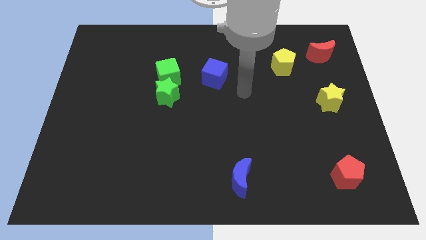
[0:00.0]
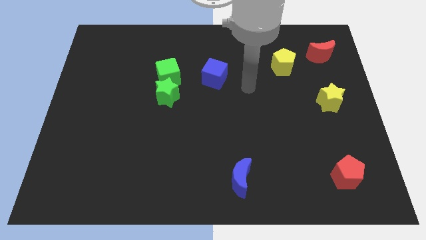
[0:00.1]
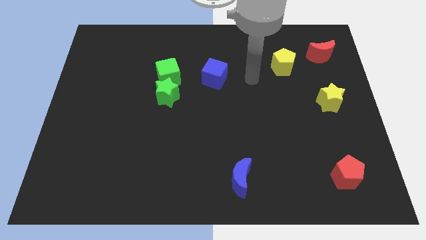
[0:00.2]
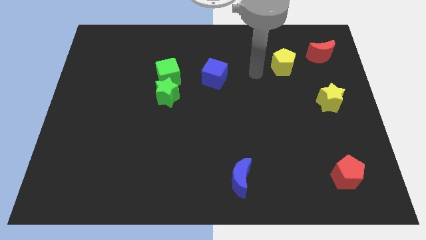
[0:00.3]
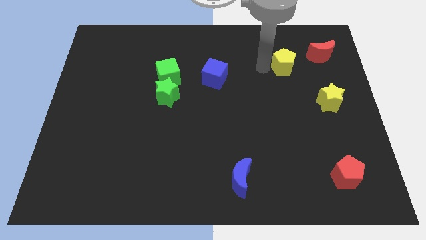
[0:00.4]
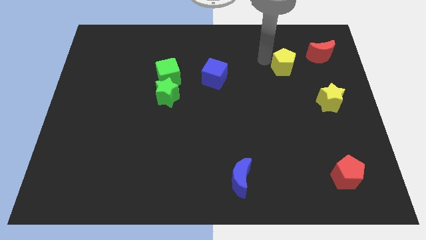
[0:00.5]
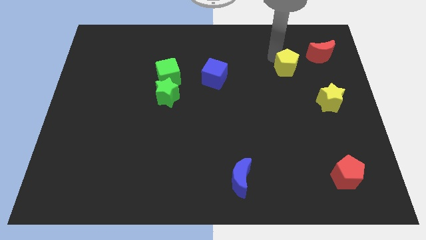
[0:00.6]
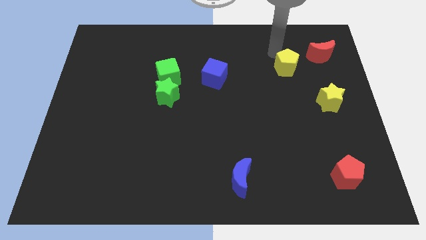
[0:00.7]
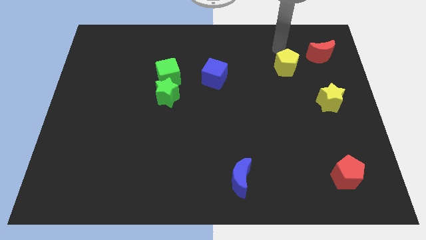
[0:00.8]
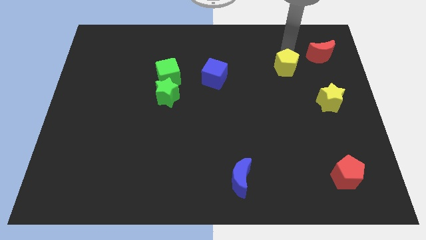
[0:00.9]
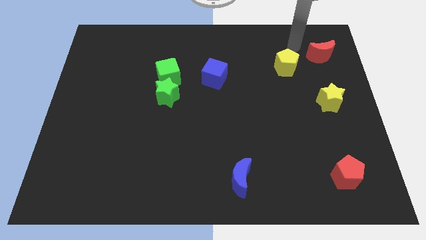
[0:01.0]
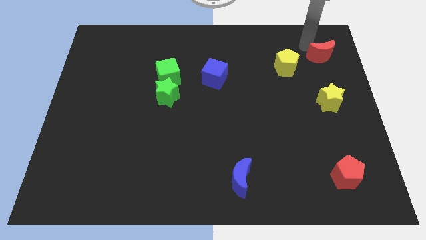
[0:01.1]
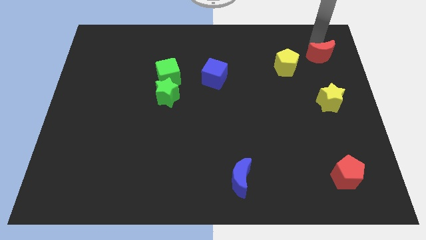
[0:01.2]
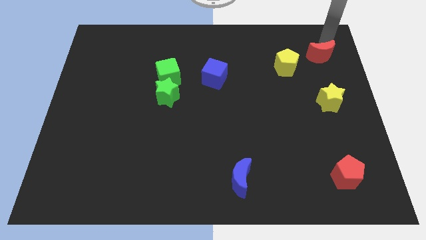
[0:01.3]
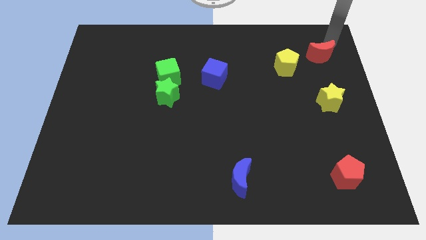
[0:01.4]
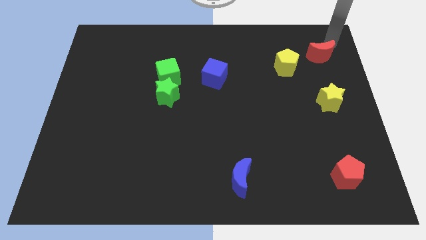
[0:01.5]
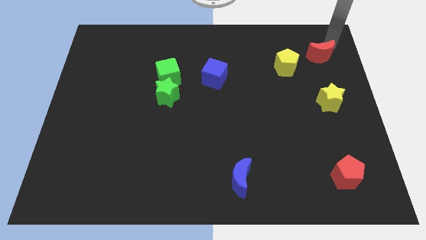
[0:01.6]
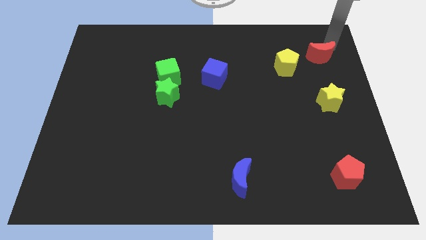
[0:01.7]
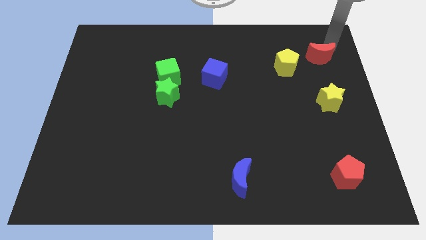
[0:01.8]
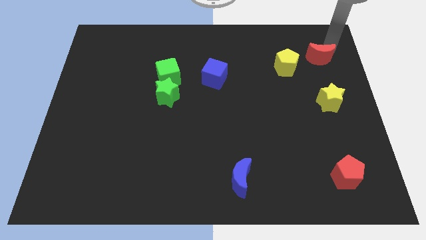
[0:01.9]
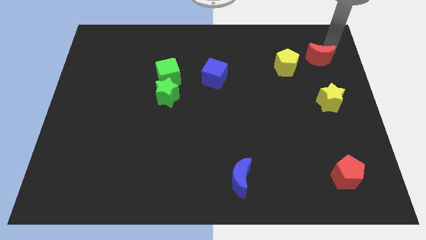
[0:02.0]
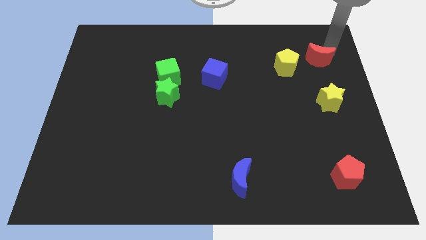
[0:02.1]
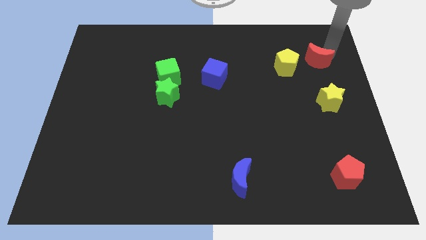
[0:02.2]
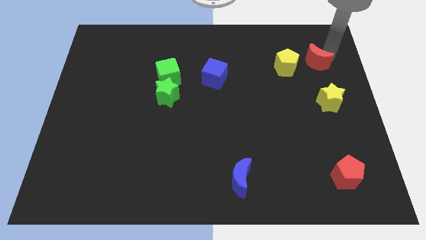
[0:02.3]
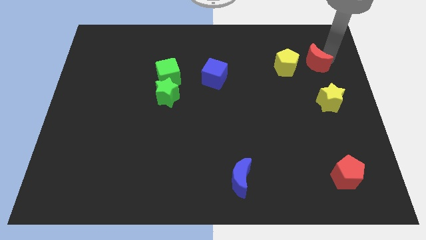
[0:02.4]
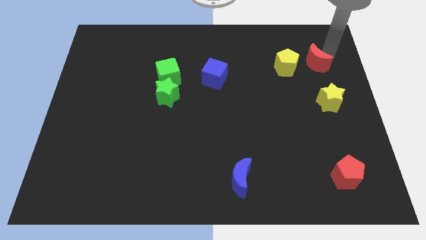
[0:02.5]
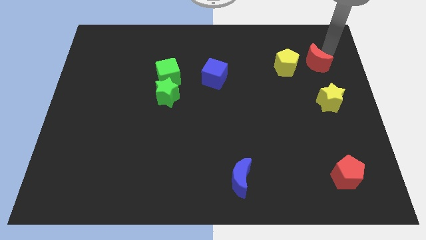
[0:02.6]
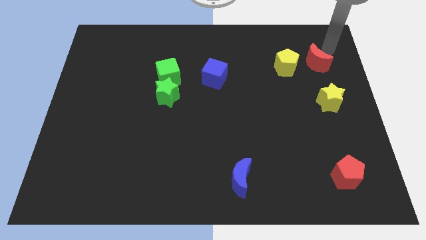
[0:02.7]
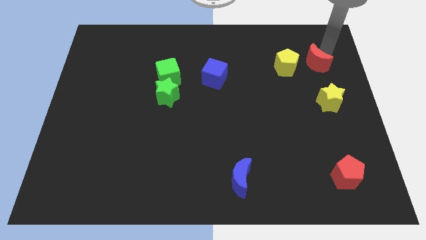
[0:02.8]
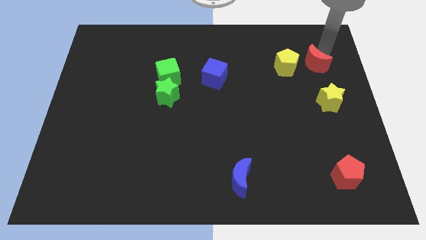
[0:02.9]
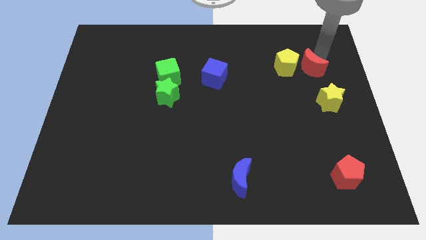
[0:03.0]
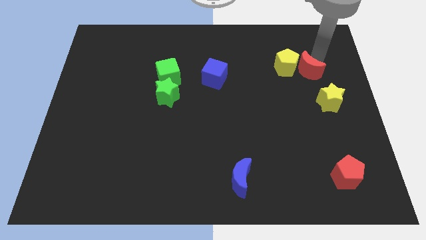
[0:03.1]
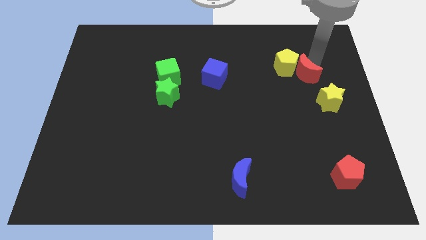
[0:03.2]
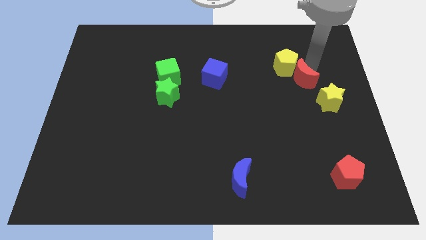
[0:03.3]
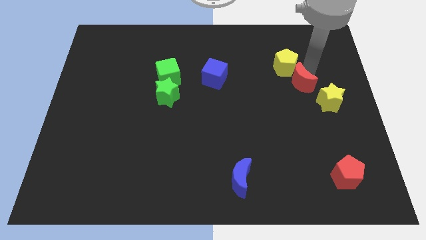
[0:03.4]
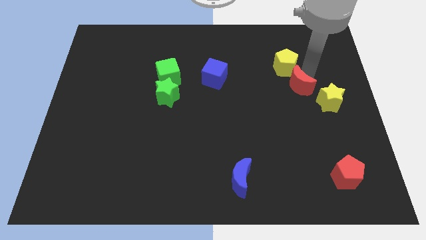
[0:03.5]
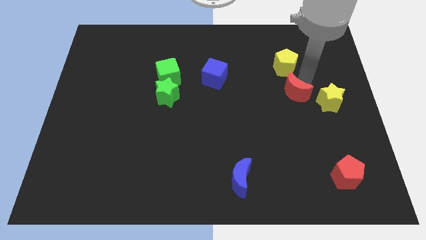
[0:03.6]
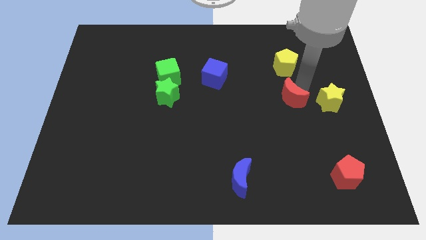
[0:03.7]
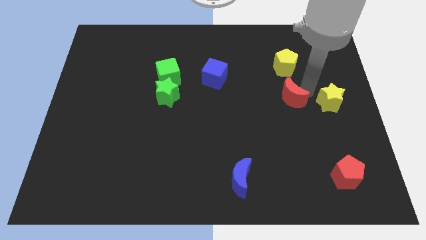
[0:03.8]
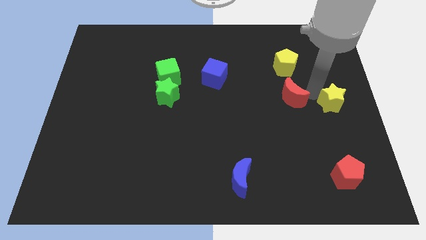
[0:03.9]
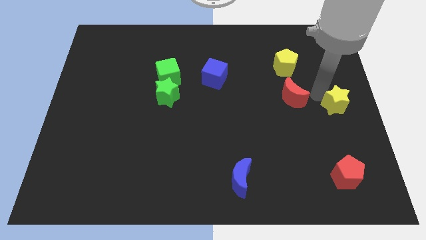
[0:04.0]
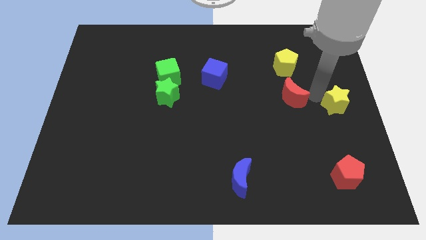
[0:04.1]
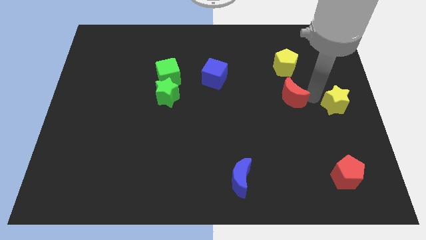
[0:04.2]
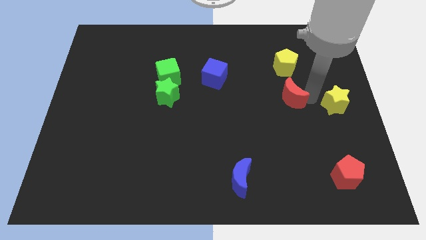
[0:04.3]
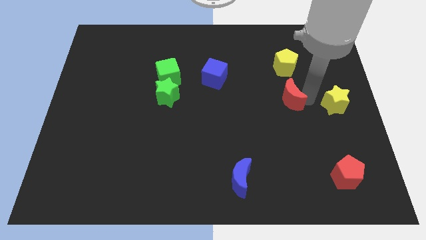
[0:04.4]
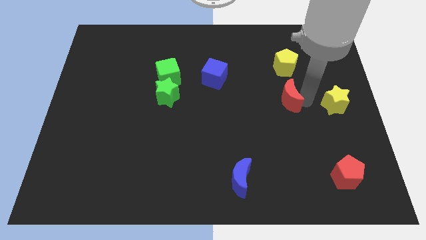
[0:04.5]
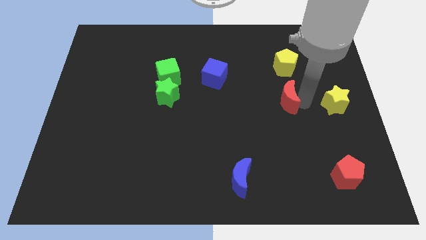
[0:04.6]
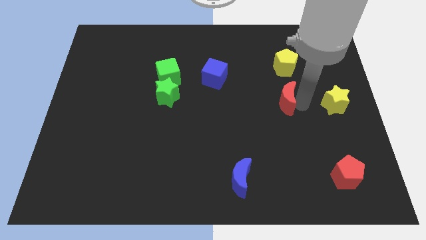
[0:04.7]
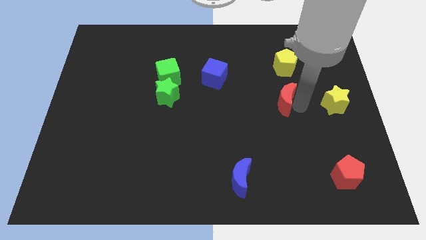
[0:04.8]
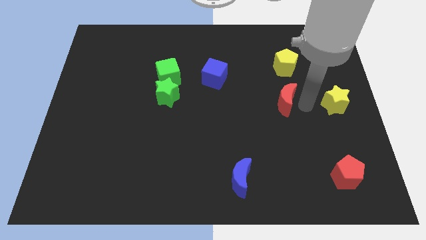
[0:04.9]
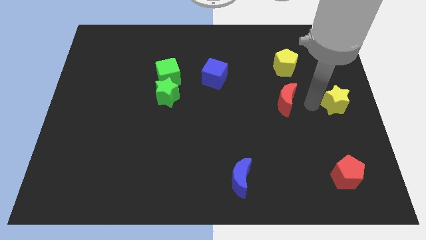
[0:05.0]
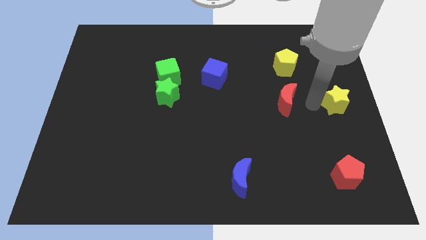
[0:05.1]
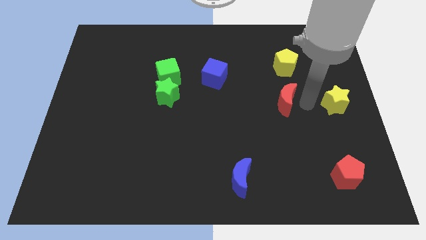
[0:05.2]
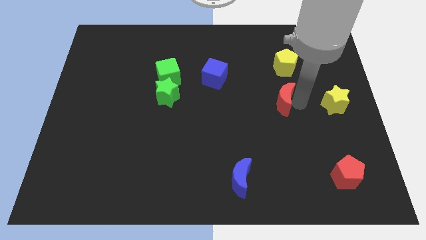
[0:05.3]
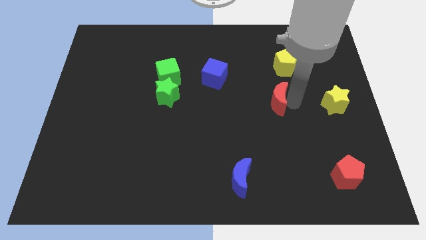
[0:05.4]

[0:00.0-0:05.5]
push the red moon down and left

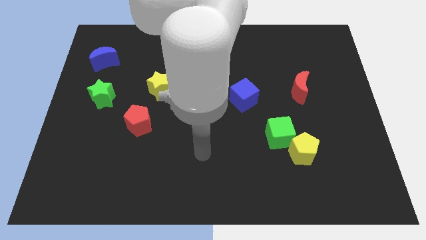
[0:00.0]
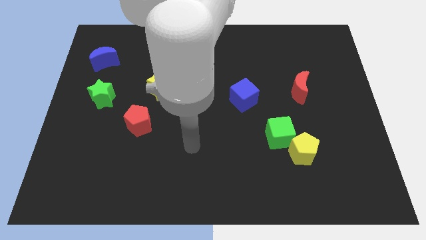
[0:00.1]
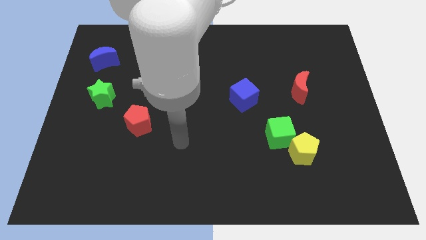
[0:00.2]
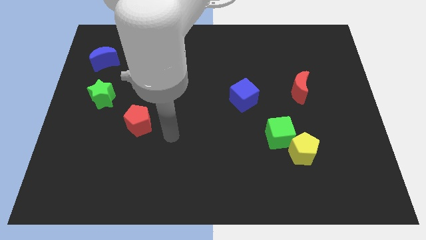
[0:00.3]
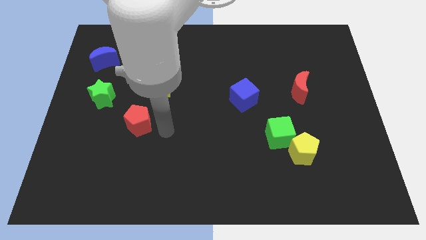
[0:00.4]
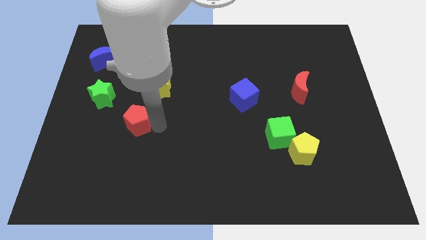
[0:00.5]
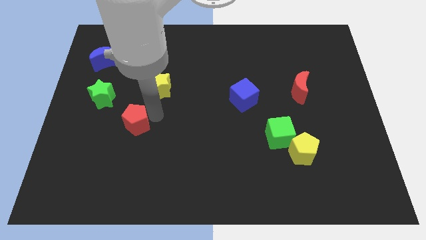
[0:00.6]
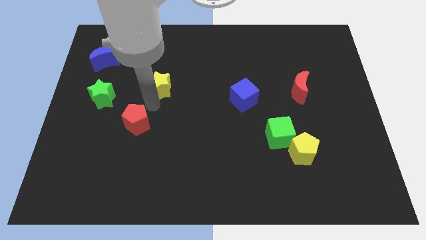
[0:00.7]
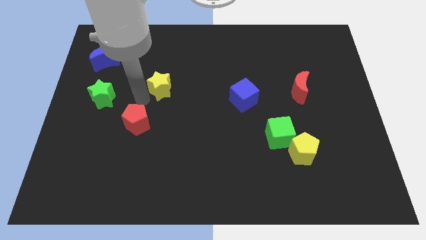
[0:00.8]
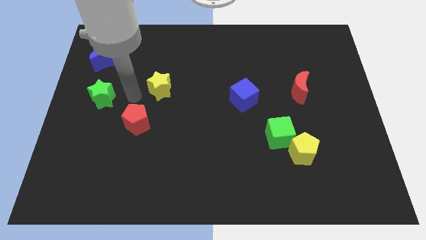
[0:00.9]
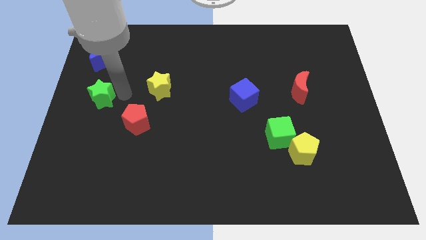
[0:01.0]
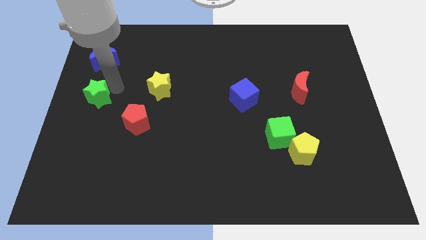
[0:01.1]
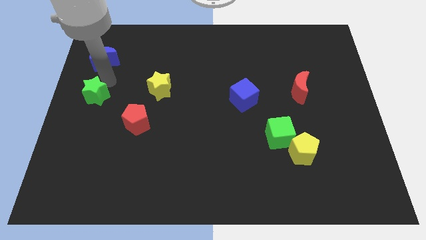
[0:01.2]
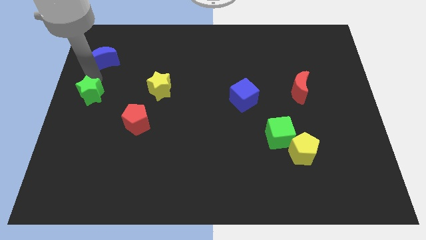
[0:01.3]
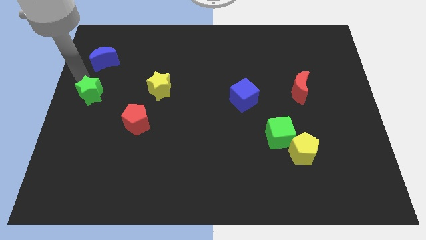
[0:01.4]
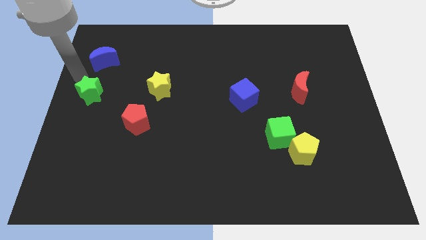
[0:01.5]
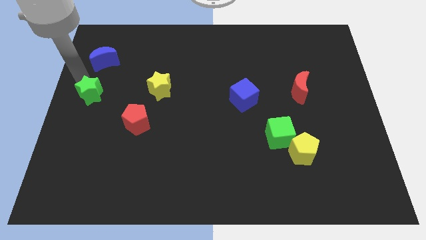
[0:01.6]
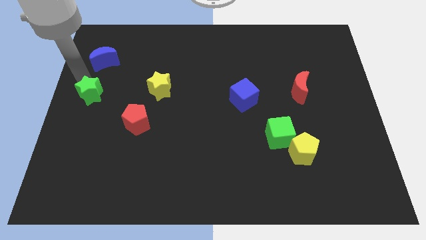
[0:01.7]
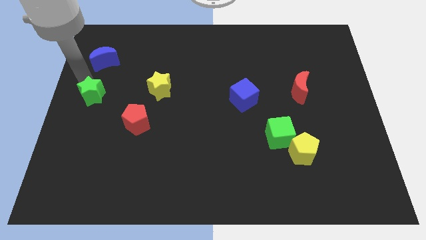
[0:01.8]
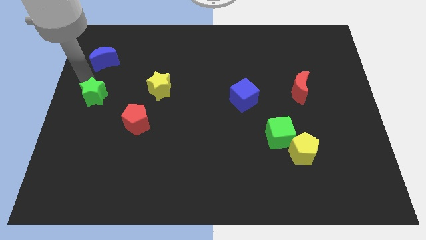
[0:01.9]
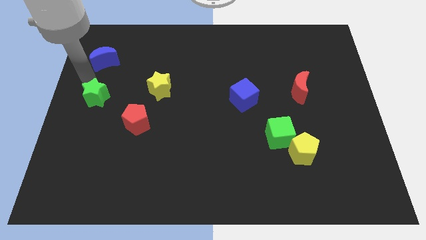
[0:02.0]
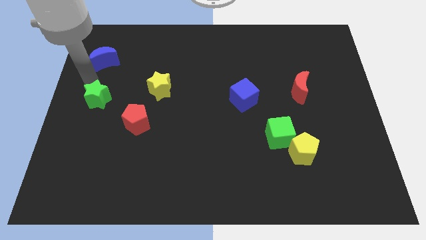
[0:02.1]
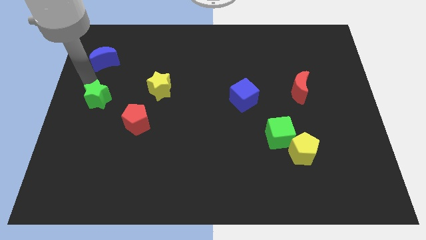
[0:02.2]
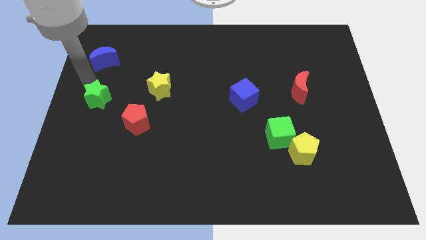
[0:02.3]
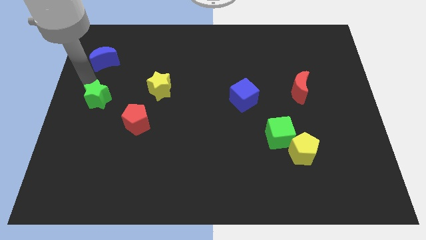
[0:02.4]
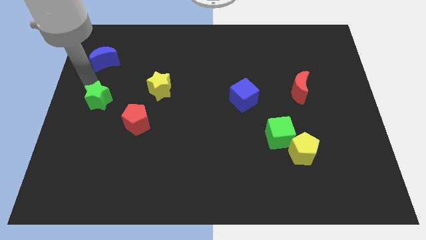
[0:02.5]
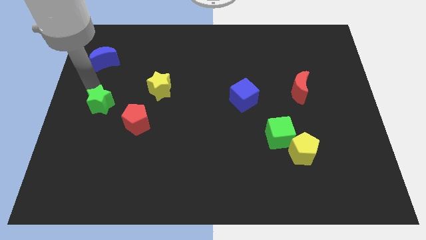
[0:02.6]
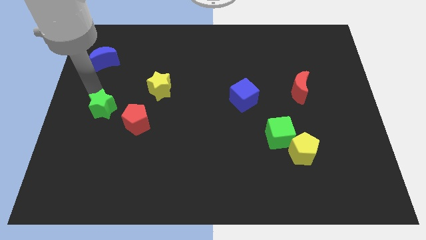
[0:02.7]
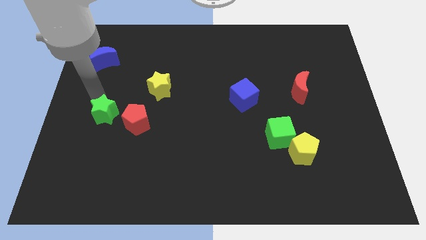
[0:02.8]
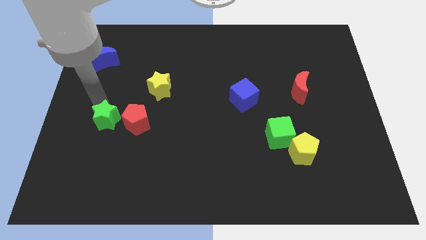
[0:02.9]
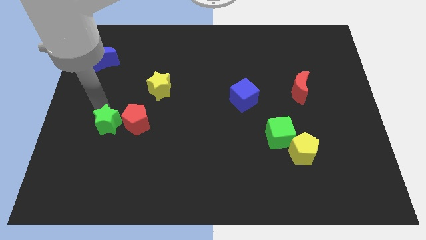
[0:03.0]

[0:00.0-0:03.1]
move the green star downwards and right diagonally a little bit
